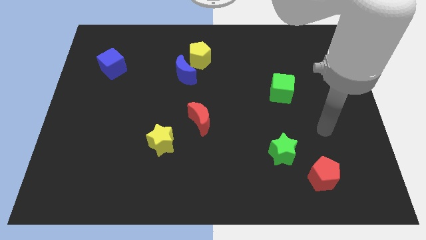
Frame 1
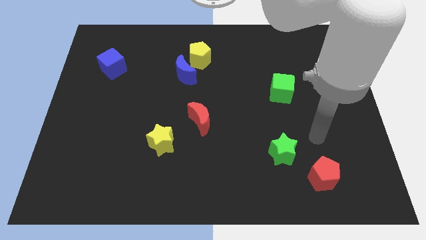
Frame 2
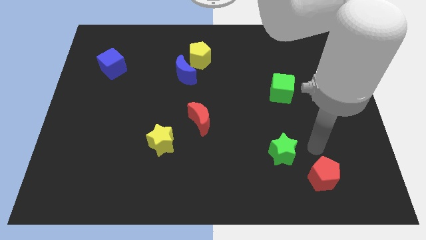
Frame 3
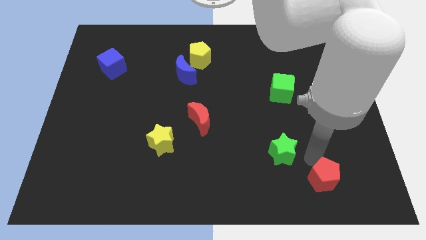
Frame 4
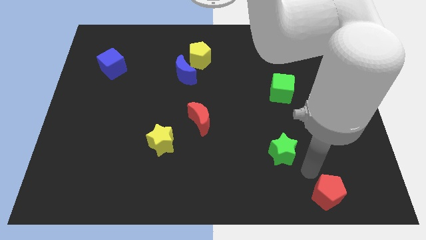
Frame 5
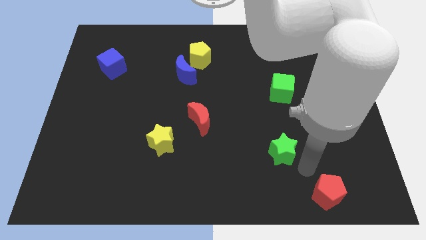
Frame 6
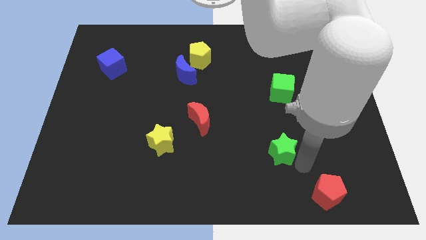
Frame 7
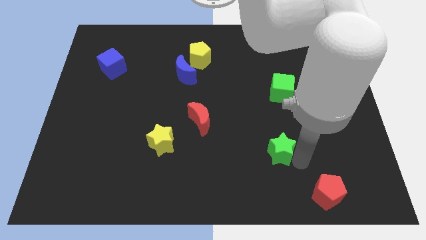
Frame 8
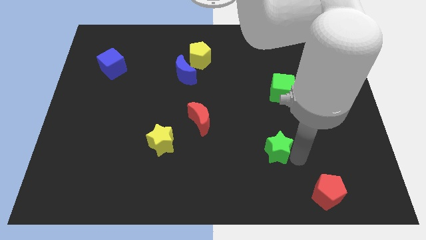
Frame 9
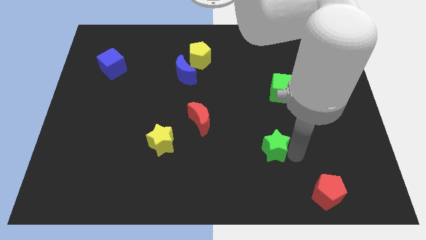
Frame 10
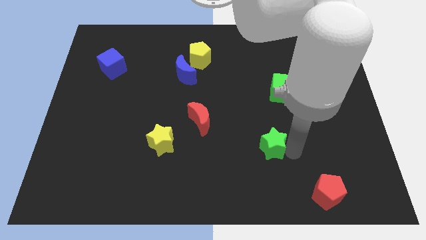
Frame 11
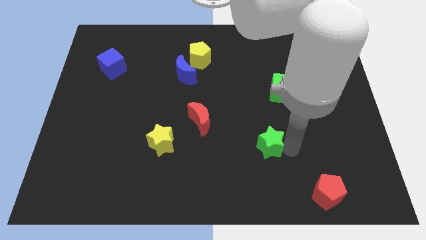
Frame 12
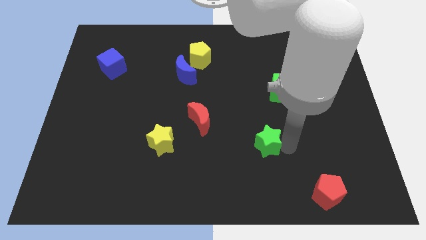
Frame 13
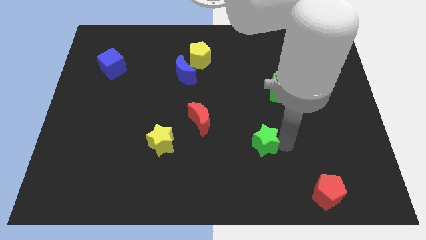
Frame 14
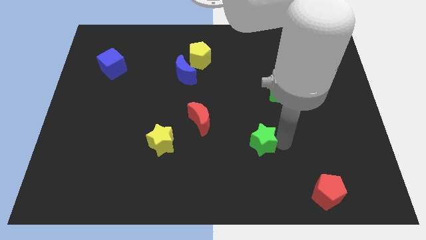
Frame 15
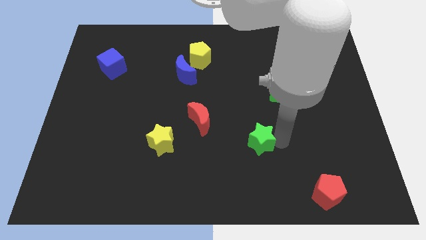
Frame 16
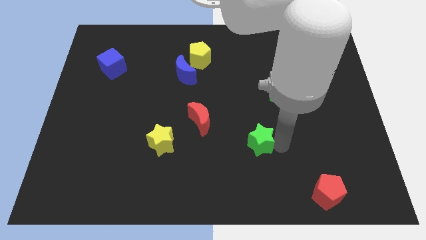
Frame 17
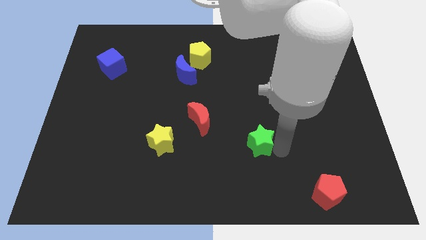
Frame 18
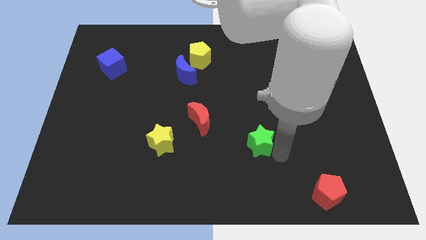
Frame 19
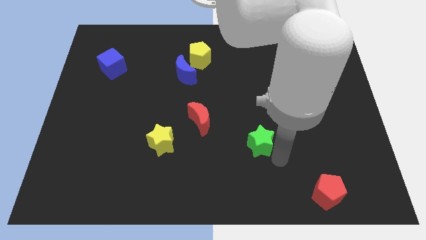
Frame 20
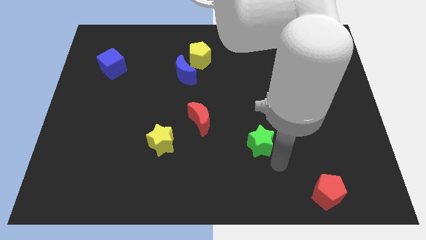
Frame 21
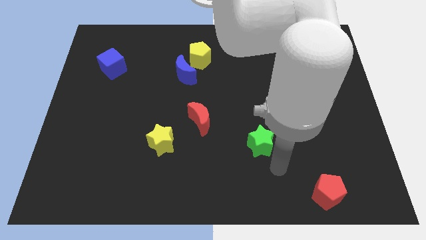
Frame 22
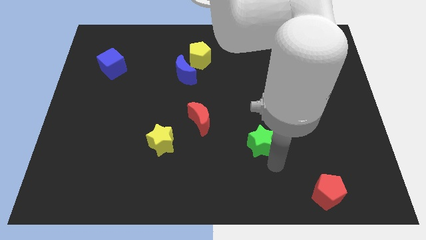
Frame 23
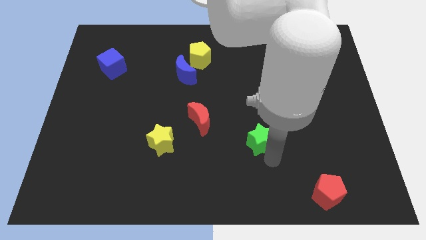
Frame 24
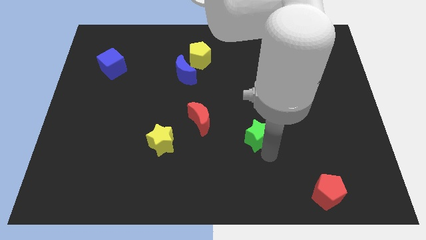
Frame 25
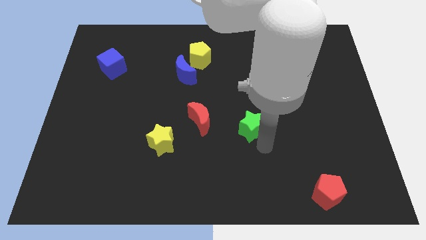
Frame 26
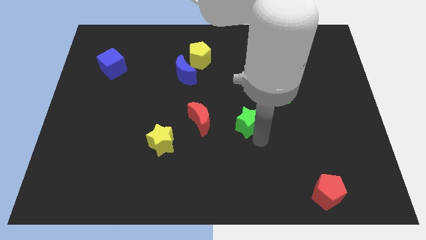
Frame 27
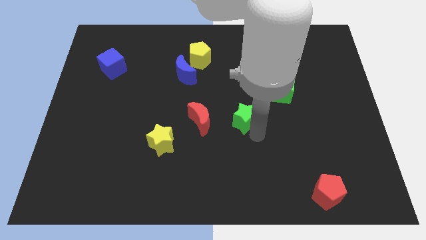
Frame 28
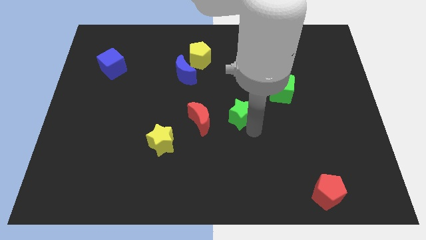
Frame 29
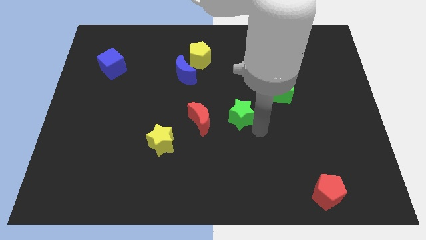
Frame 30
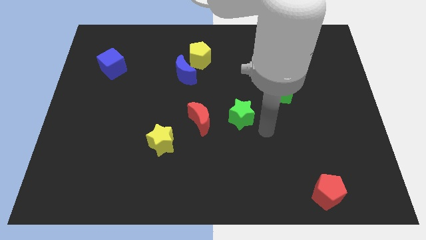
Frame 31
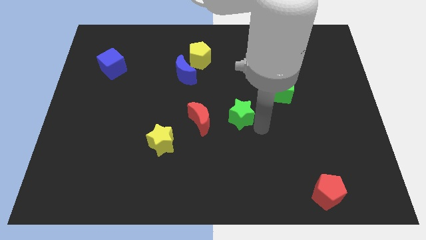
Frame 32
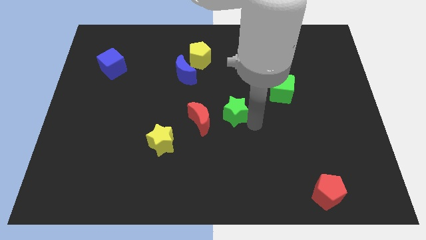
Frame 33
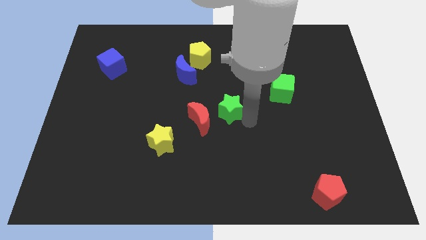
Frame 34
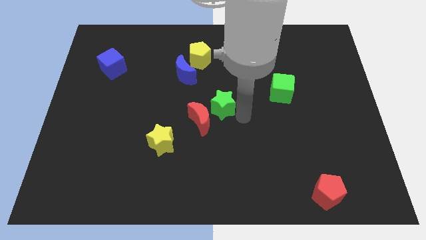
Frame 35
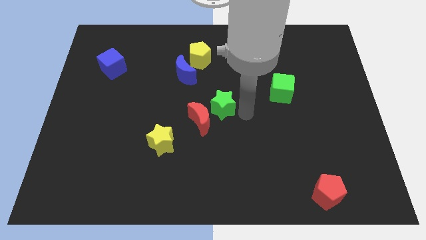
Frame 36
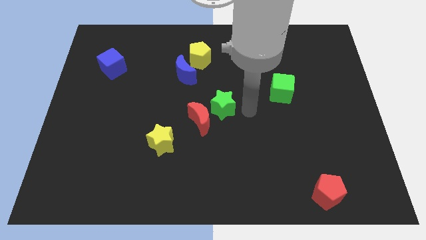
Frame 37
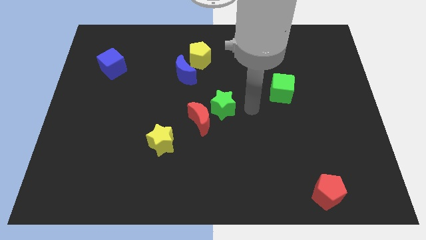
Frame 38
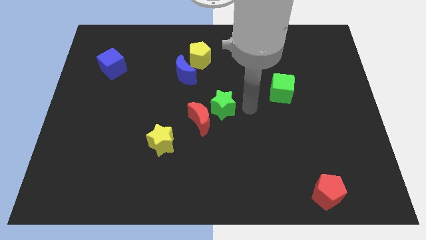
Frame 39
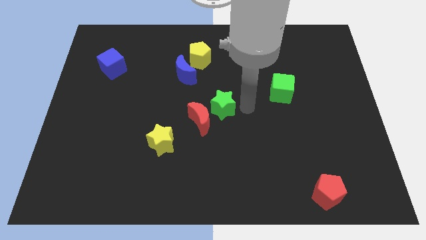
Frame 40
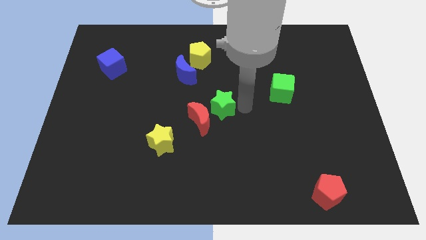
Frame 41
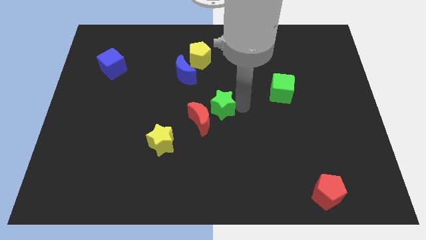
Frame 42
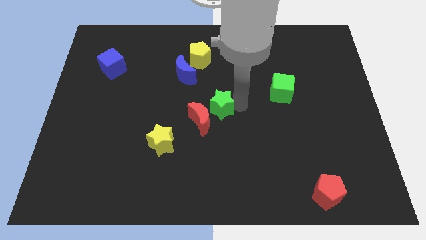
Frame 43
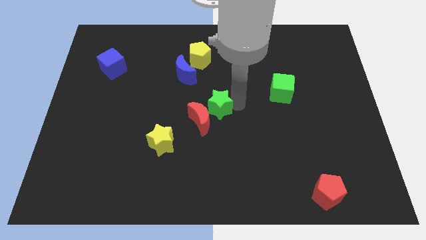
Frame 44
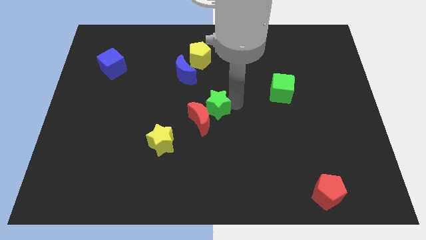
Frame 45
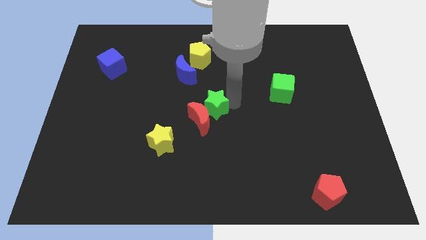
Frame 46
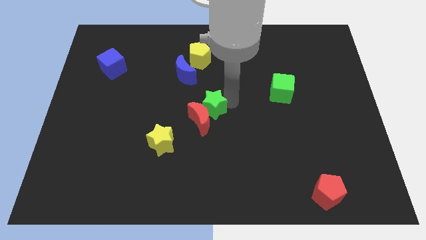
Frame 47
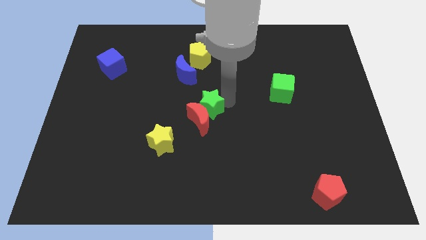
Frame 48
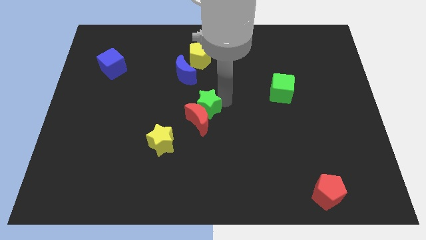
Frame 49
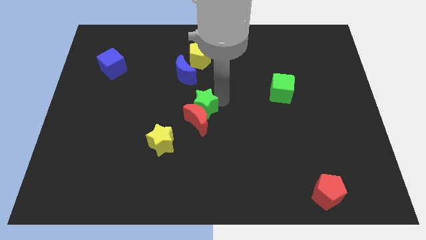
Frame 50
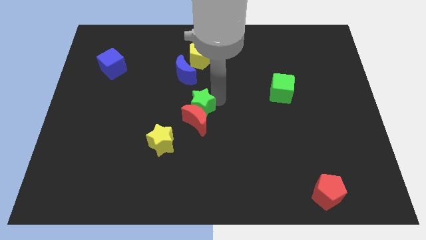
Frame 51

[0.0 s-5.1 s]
put the green star to the bottom side of the blue moon

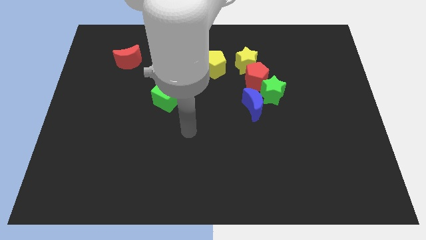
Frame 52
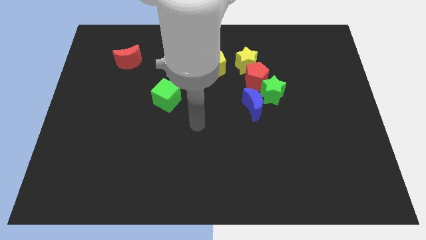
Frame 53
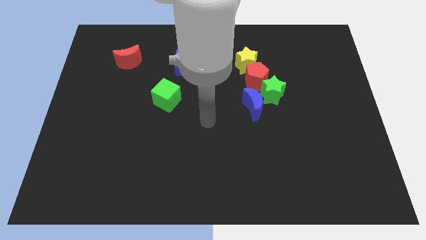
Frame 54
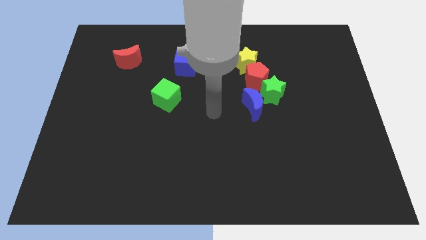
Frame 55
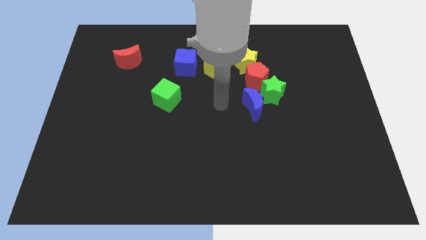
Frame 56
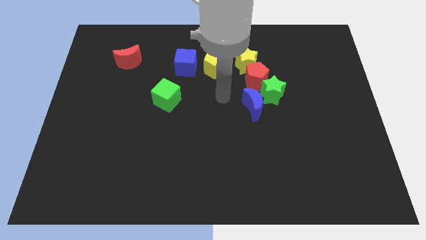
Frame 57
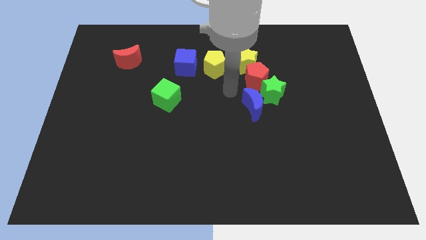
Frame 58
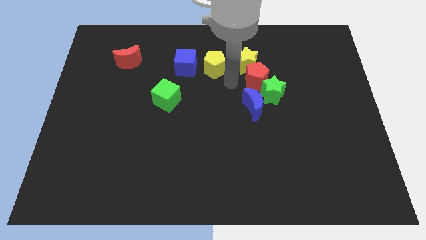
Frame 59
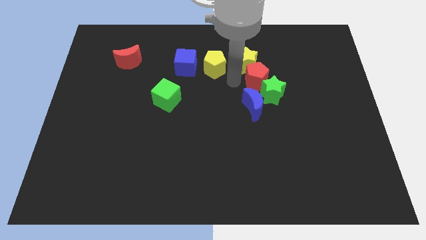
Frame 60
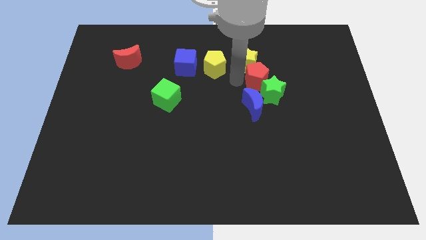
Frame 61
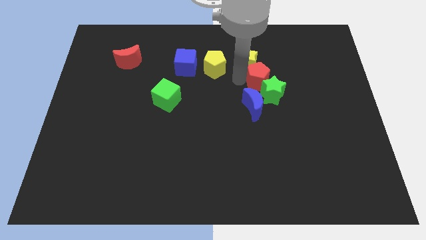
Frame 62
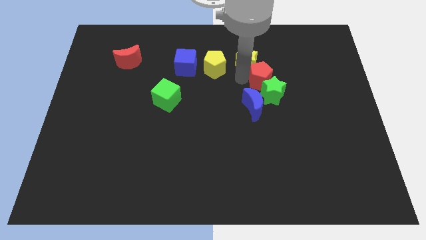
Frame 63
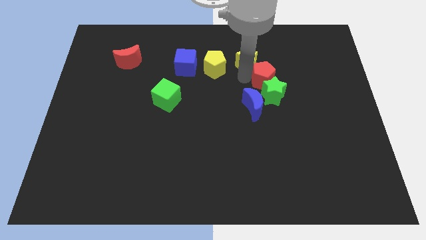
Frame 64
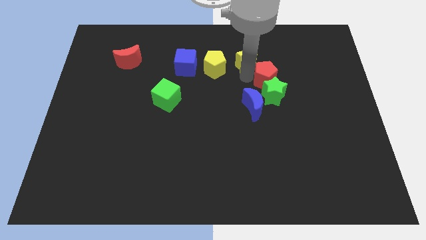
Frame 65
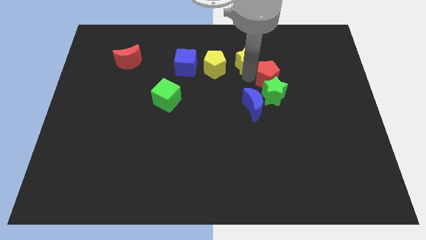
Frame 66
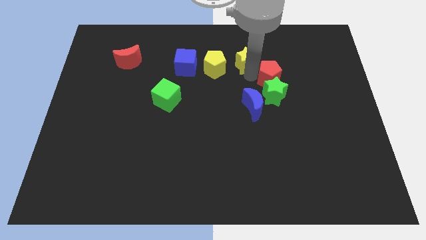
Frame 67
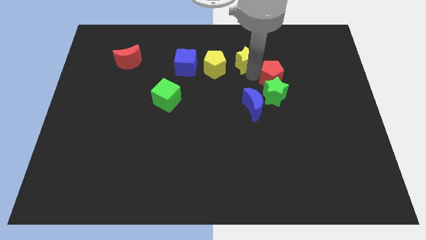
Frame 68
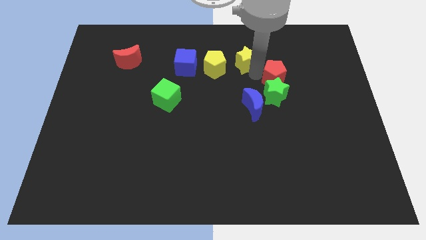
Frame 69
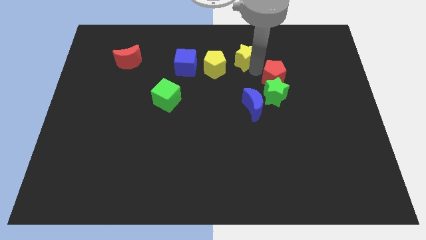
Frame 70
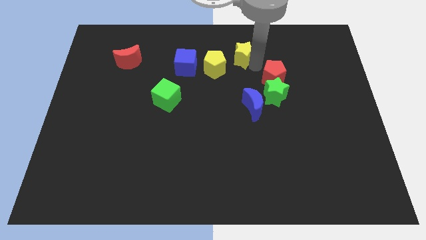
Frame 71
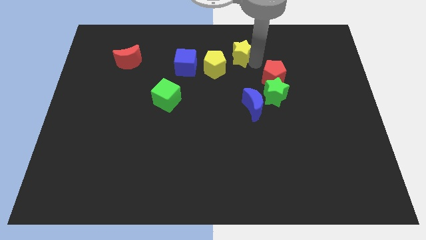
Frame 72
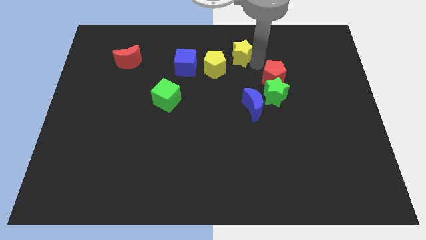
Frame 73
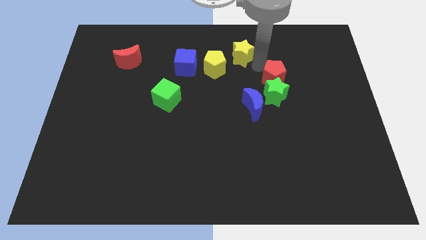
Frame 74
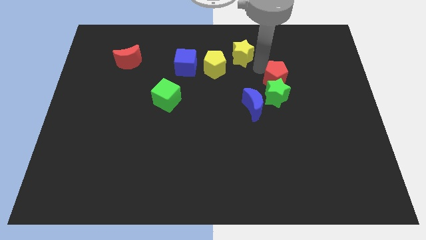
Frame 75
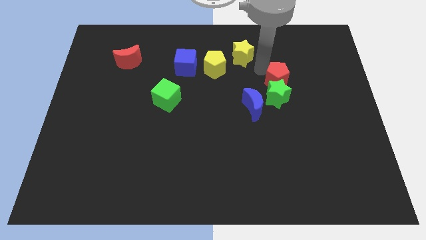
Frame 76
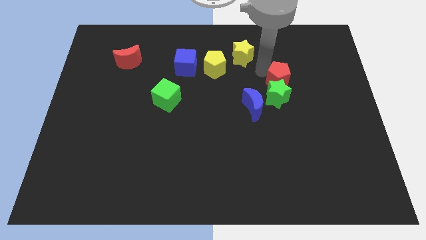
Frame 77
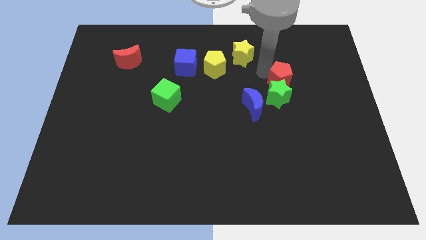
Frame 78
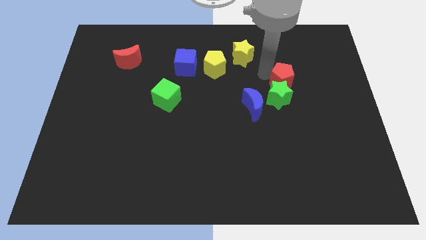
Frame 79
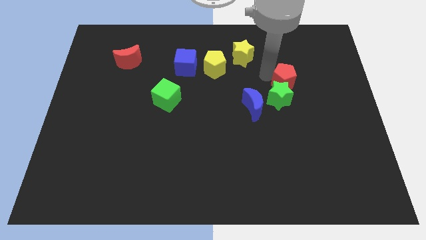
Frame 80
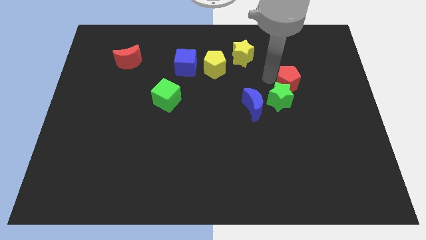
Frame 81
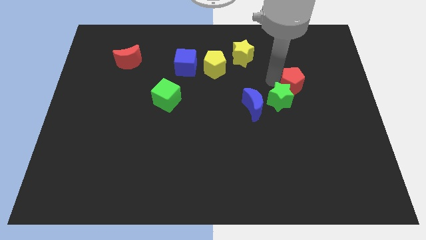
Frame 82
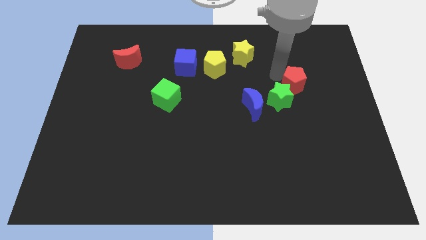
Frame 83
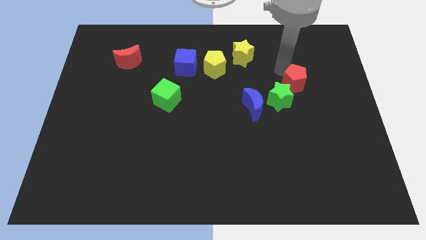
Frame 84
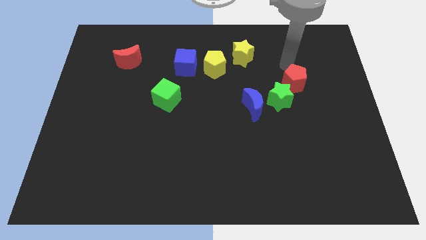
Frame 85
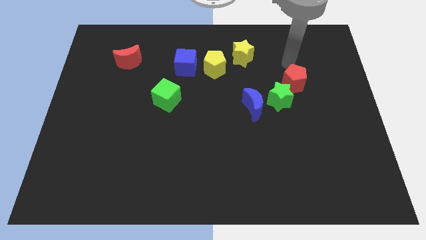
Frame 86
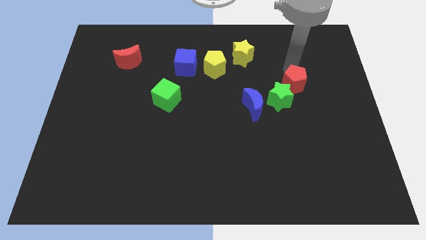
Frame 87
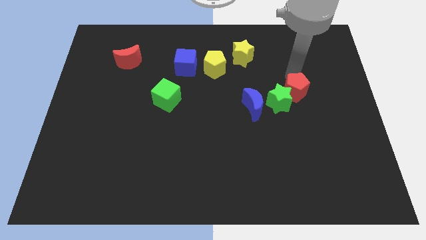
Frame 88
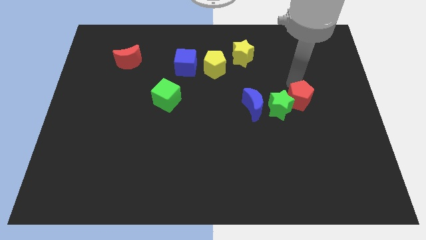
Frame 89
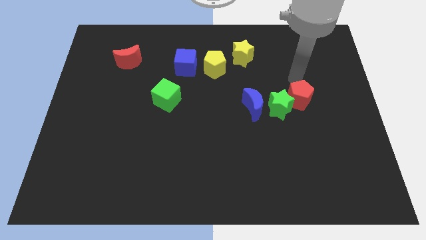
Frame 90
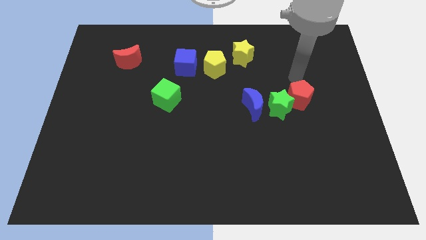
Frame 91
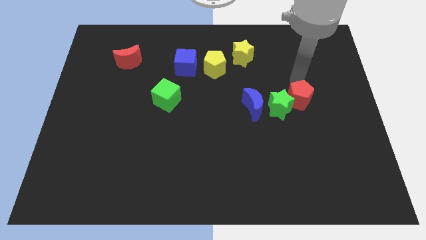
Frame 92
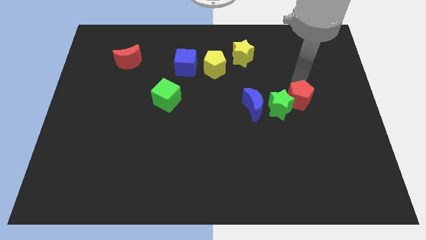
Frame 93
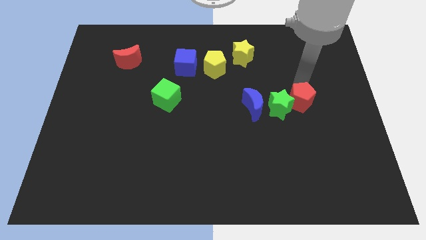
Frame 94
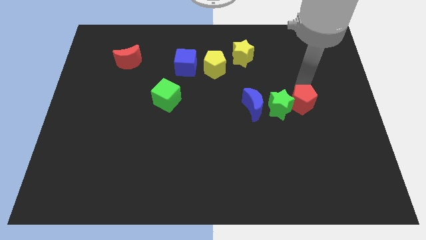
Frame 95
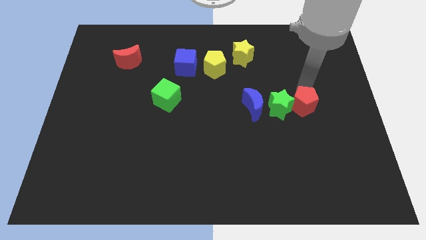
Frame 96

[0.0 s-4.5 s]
slide the red pentagon diagonally down and to the right of the green star
